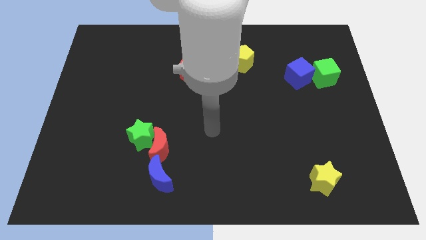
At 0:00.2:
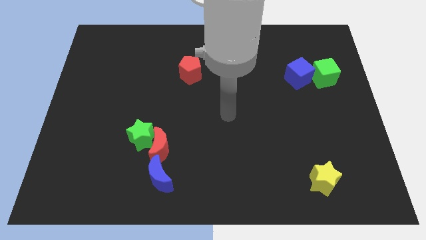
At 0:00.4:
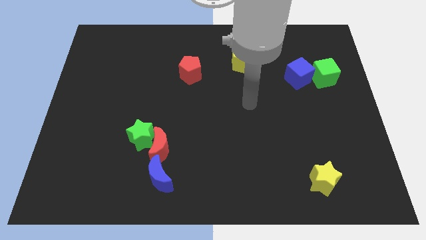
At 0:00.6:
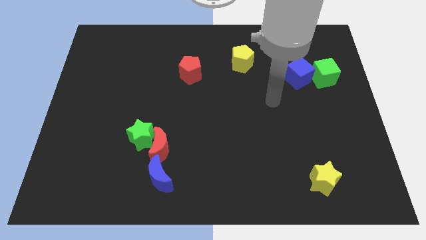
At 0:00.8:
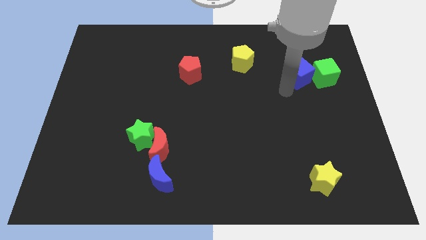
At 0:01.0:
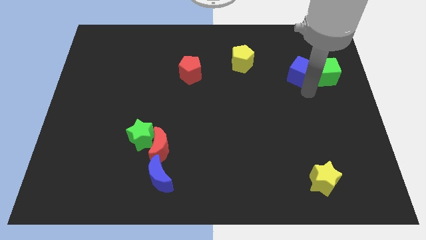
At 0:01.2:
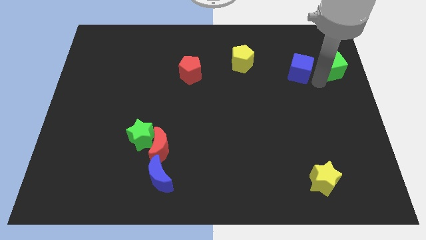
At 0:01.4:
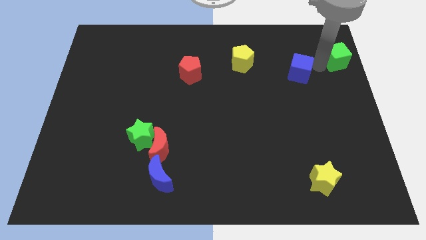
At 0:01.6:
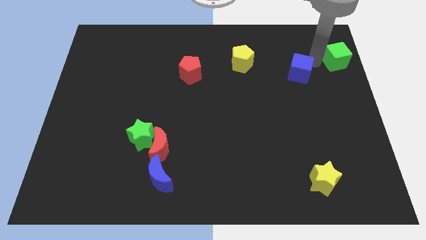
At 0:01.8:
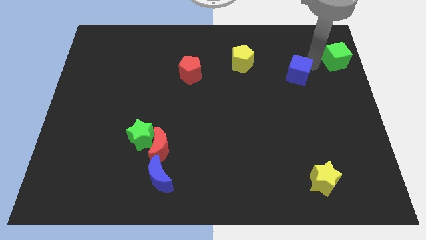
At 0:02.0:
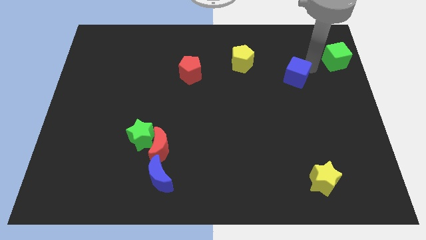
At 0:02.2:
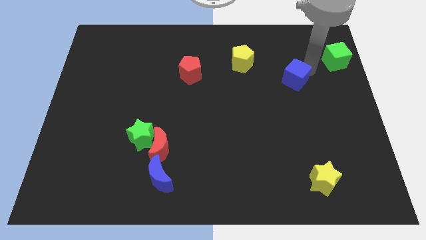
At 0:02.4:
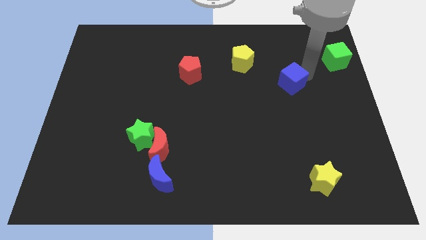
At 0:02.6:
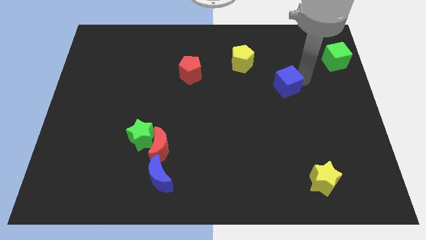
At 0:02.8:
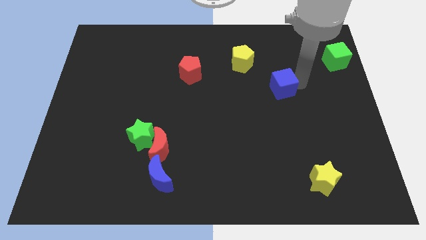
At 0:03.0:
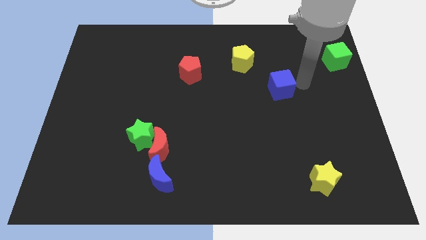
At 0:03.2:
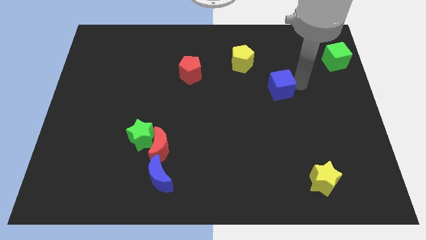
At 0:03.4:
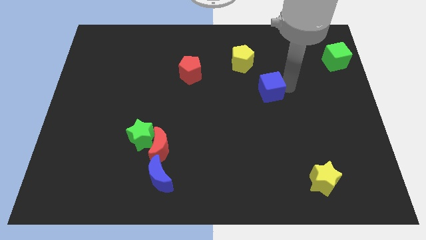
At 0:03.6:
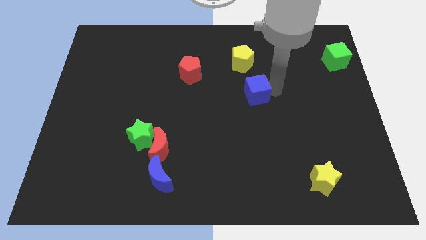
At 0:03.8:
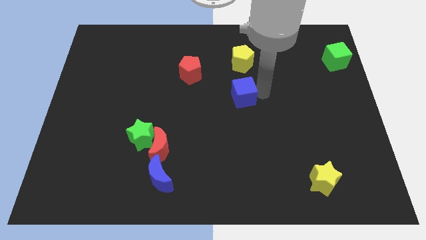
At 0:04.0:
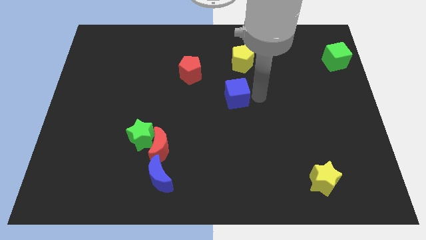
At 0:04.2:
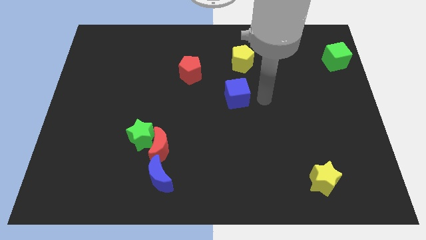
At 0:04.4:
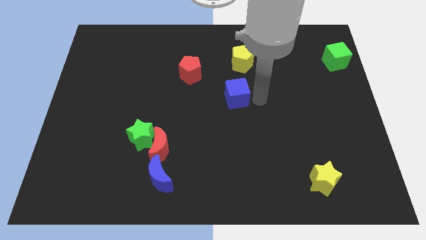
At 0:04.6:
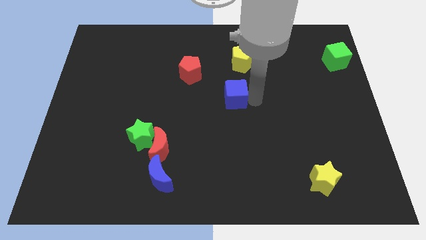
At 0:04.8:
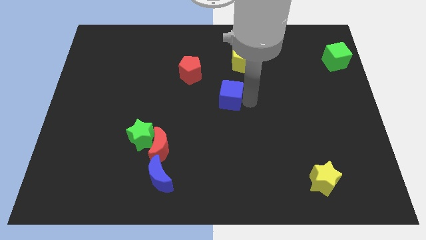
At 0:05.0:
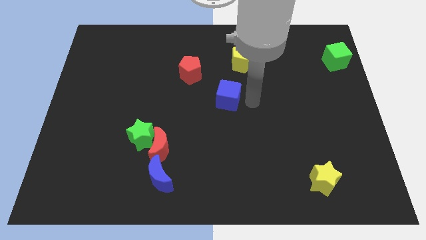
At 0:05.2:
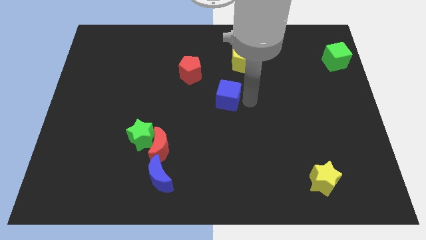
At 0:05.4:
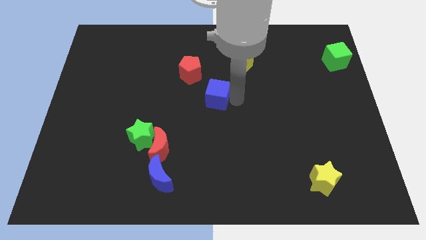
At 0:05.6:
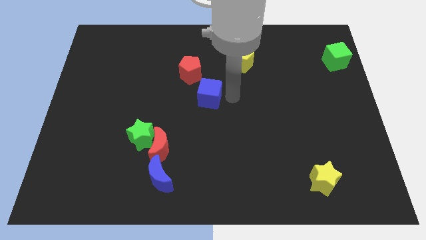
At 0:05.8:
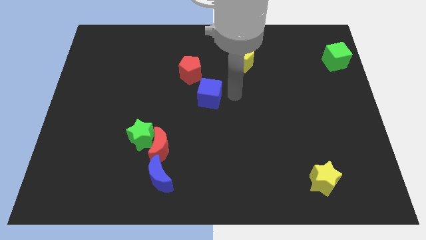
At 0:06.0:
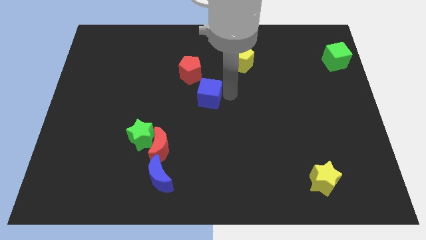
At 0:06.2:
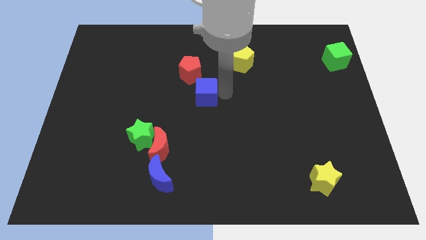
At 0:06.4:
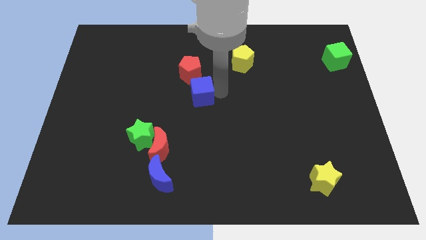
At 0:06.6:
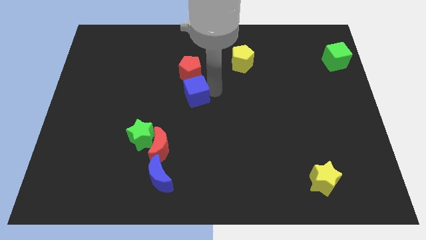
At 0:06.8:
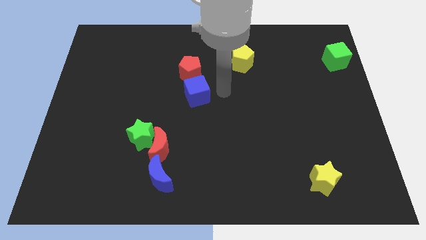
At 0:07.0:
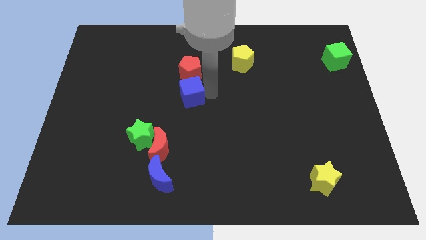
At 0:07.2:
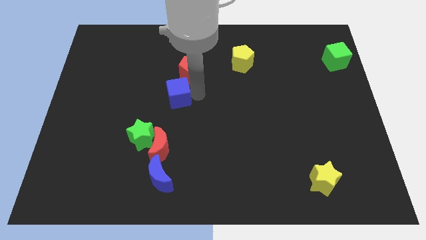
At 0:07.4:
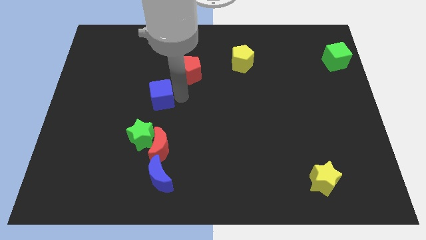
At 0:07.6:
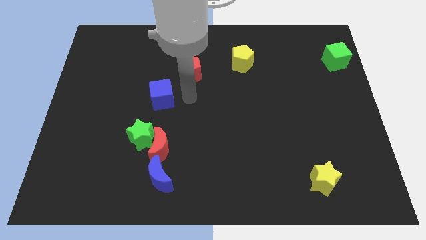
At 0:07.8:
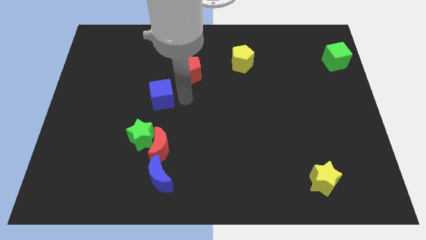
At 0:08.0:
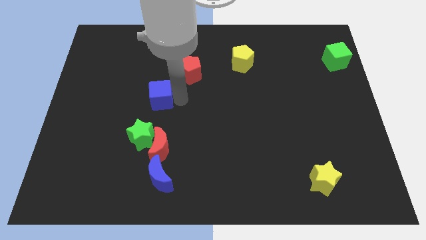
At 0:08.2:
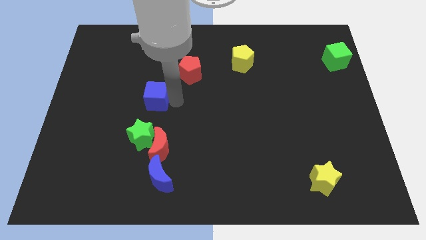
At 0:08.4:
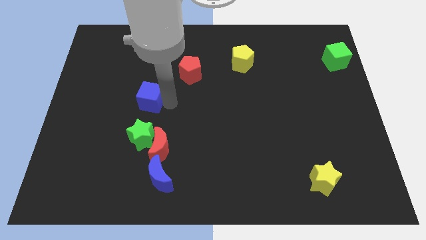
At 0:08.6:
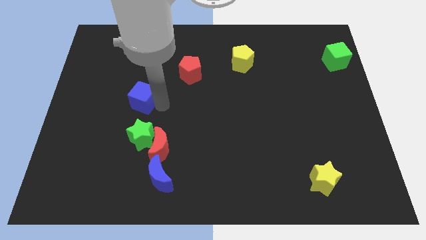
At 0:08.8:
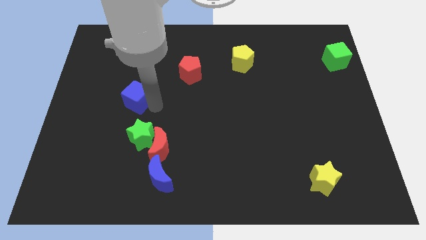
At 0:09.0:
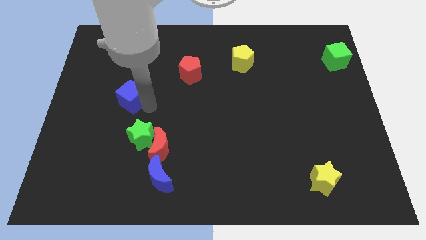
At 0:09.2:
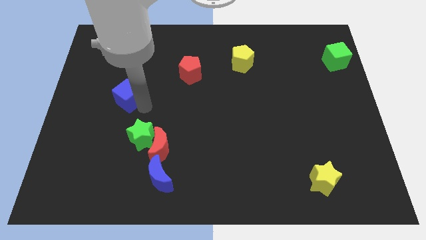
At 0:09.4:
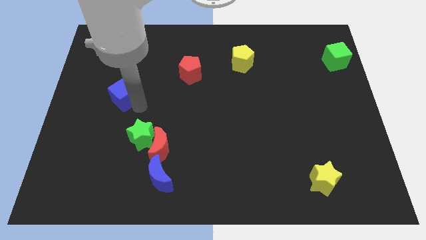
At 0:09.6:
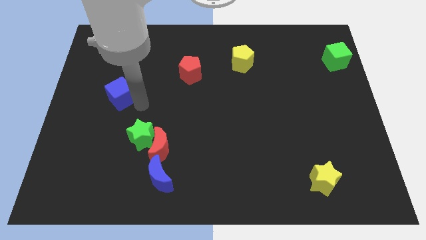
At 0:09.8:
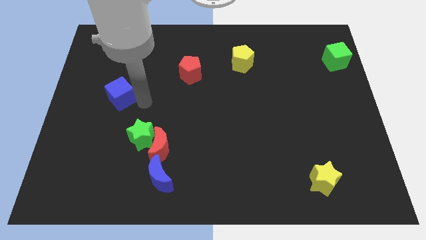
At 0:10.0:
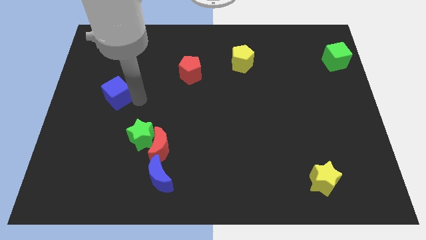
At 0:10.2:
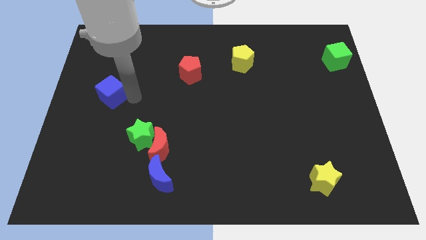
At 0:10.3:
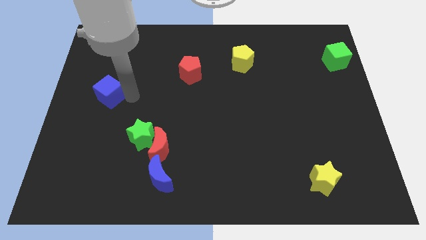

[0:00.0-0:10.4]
move the blue cube to the left side of the board

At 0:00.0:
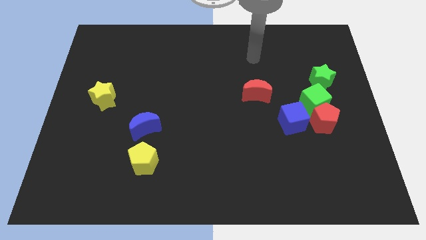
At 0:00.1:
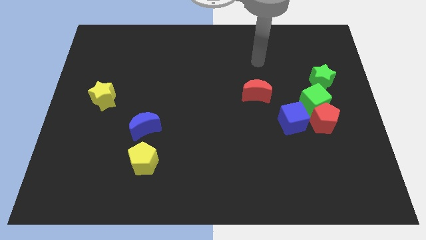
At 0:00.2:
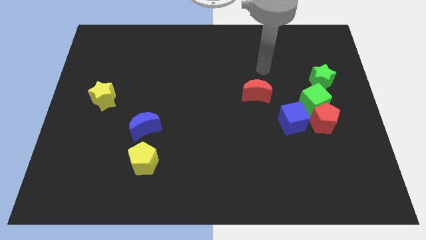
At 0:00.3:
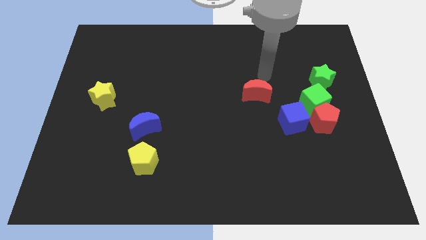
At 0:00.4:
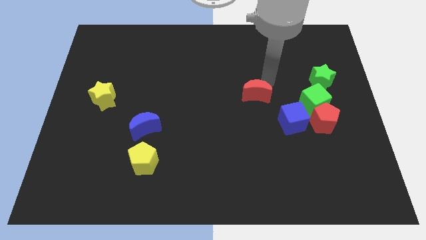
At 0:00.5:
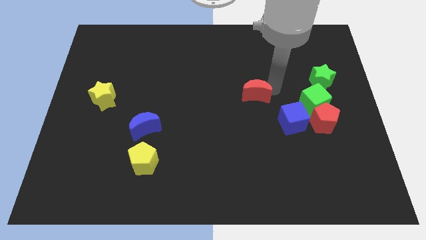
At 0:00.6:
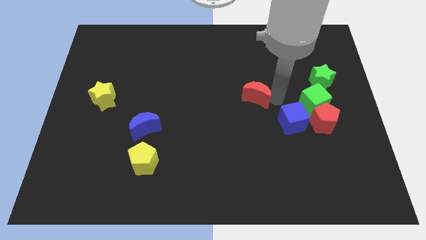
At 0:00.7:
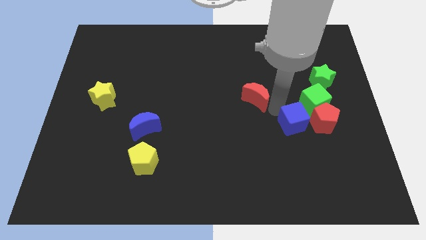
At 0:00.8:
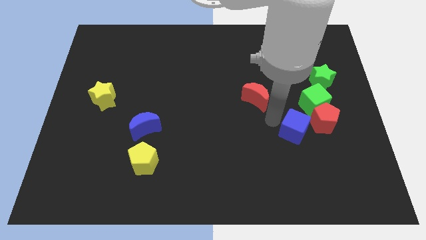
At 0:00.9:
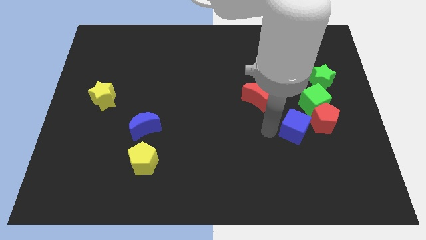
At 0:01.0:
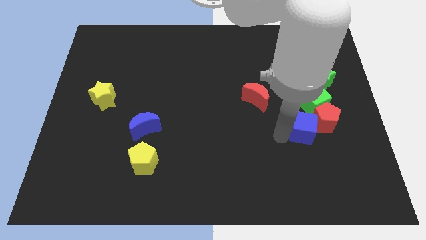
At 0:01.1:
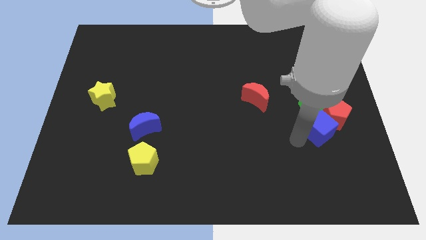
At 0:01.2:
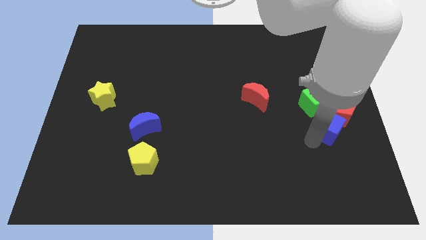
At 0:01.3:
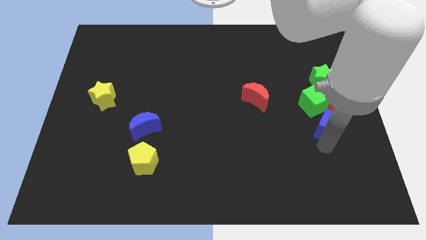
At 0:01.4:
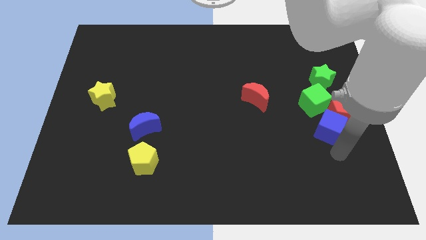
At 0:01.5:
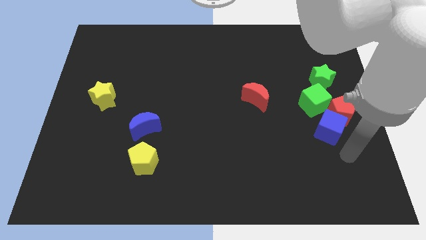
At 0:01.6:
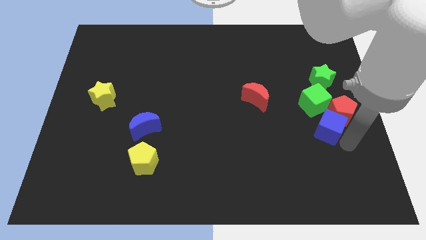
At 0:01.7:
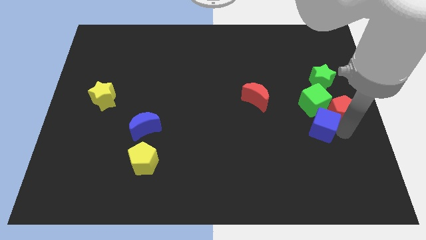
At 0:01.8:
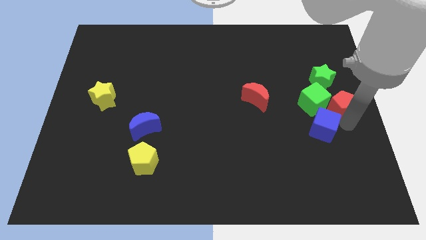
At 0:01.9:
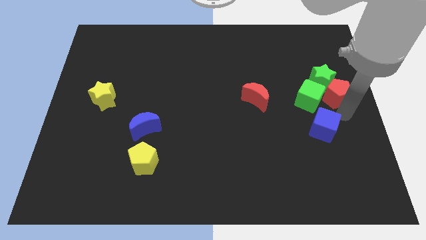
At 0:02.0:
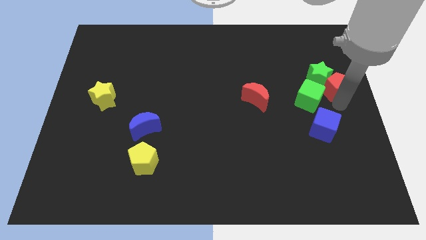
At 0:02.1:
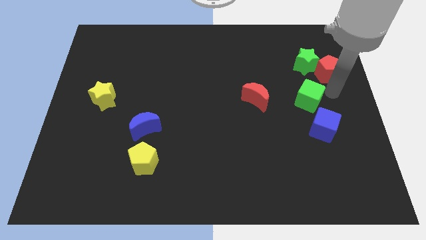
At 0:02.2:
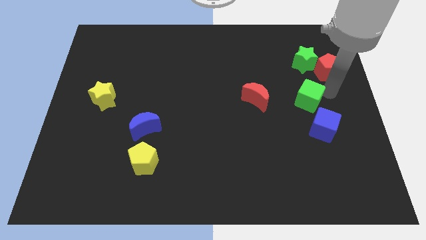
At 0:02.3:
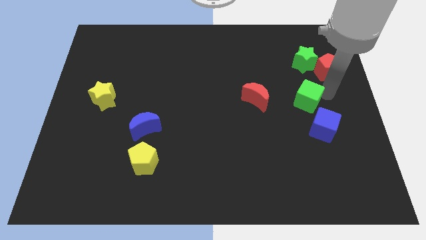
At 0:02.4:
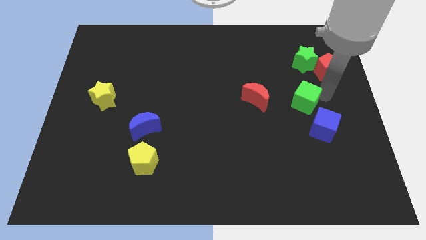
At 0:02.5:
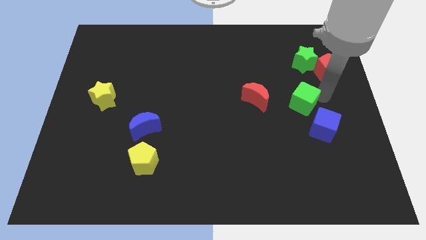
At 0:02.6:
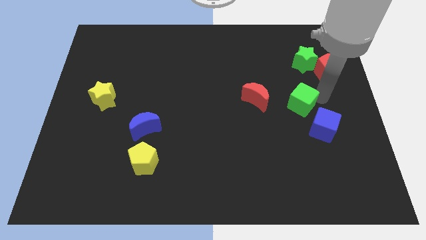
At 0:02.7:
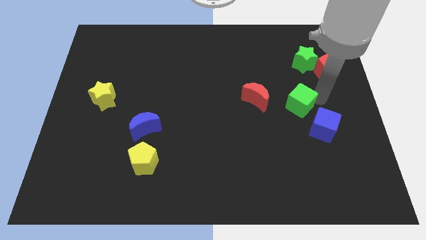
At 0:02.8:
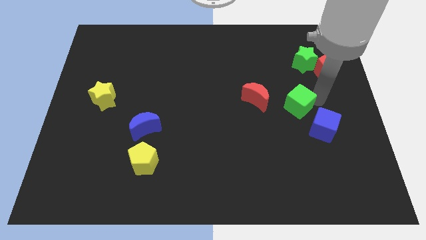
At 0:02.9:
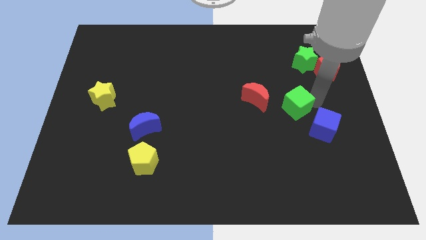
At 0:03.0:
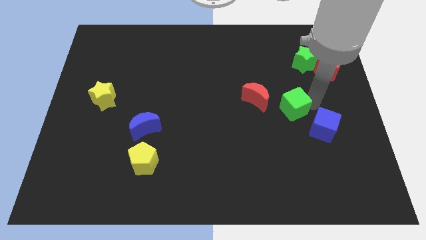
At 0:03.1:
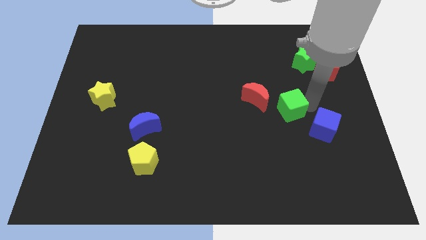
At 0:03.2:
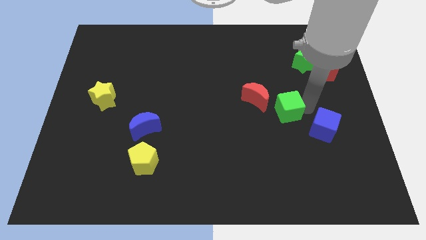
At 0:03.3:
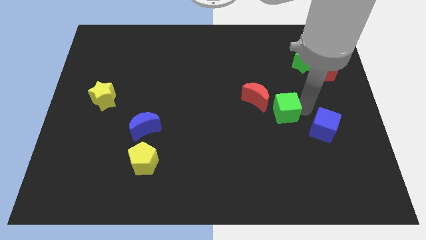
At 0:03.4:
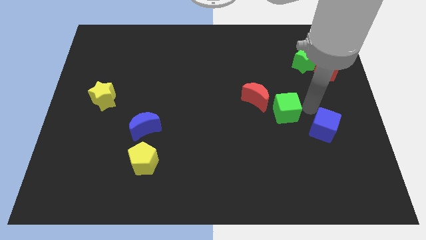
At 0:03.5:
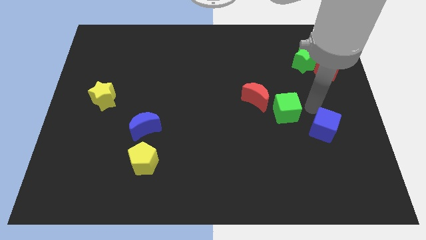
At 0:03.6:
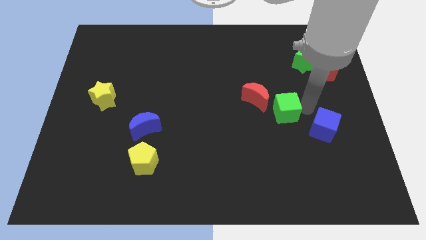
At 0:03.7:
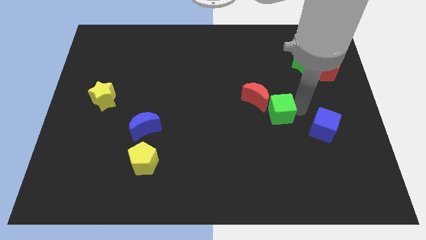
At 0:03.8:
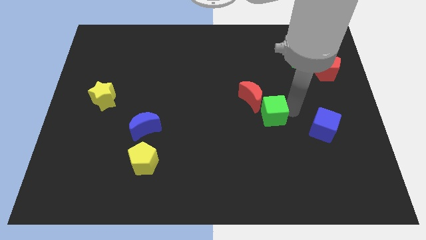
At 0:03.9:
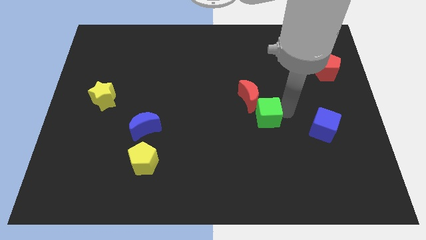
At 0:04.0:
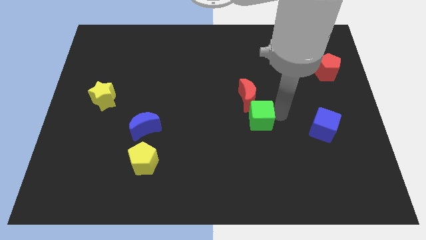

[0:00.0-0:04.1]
put the green cube to the middle
